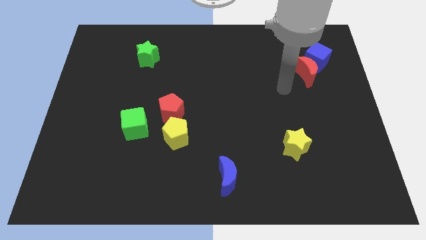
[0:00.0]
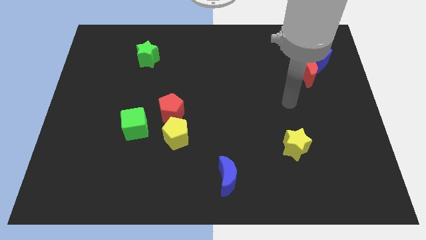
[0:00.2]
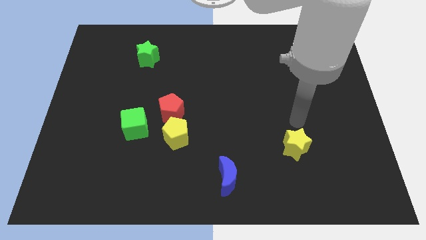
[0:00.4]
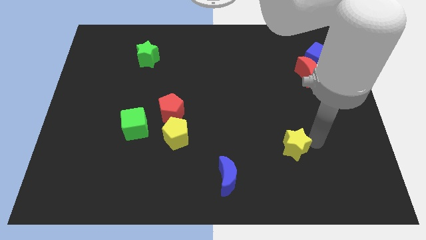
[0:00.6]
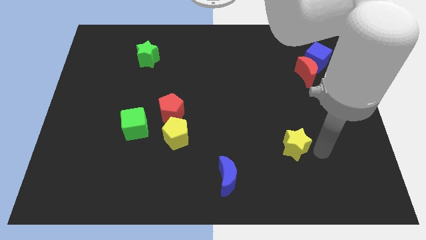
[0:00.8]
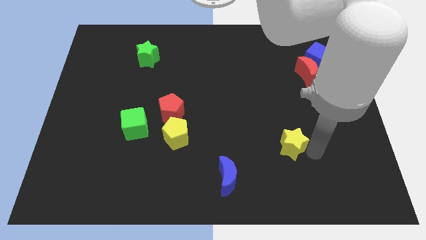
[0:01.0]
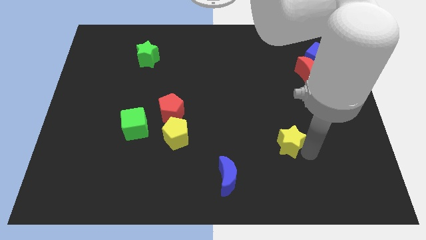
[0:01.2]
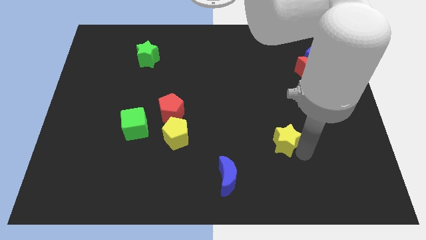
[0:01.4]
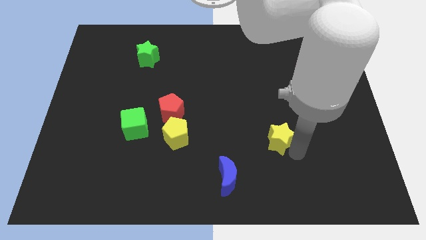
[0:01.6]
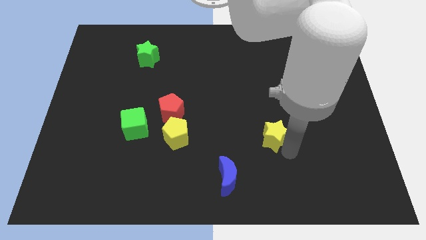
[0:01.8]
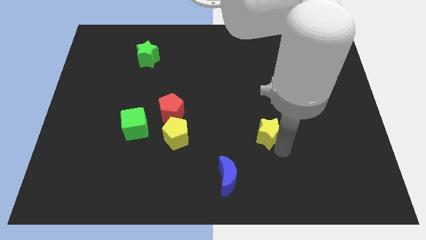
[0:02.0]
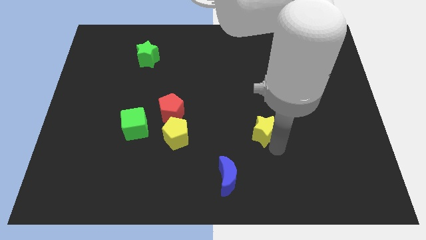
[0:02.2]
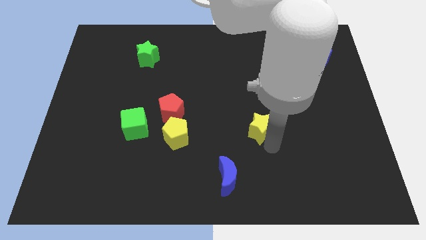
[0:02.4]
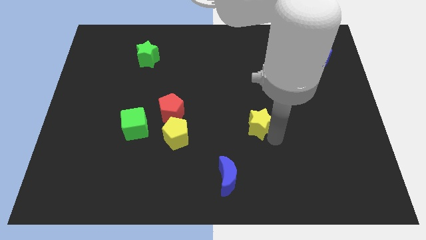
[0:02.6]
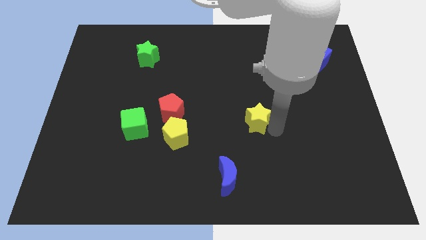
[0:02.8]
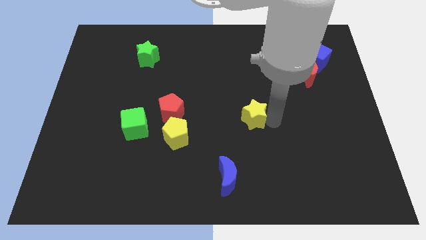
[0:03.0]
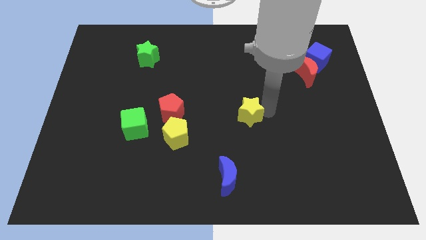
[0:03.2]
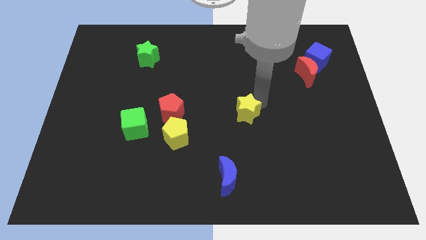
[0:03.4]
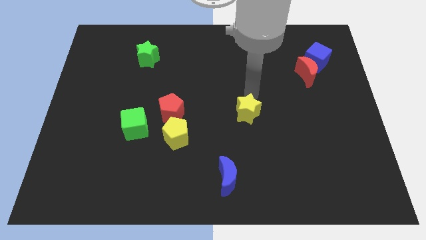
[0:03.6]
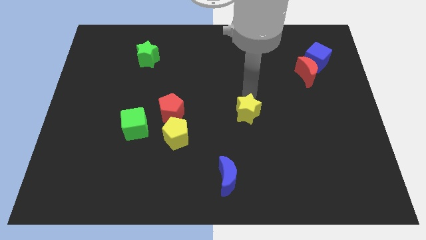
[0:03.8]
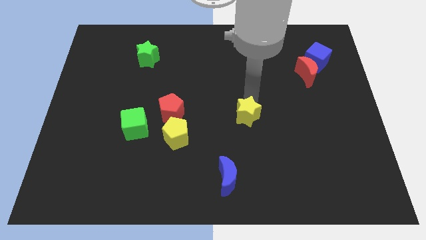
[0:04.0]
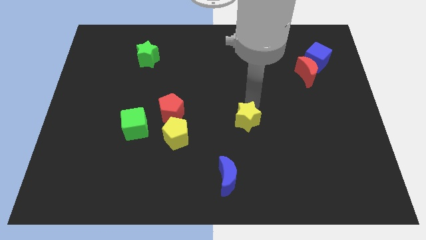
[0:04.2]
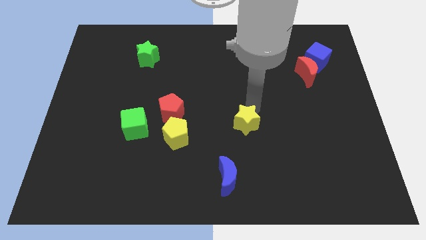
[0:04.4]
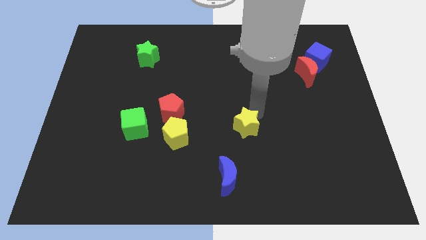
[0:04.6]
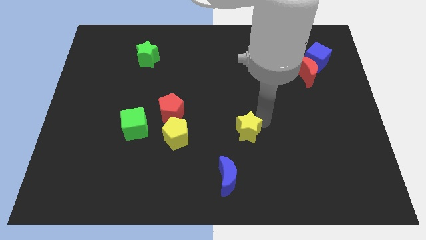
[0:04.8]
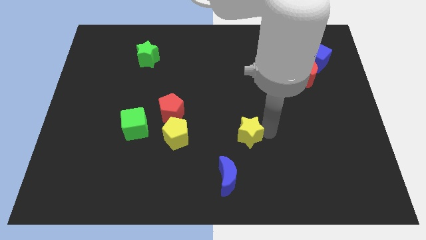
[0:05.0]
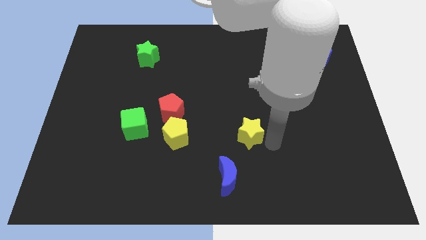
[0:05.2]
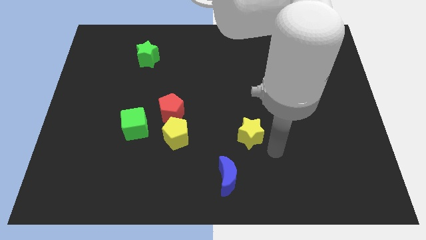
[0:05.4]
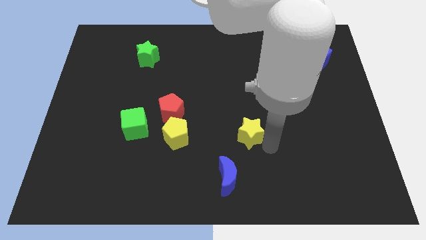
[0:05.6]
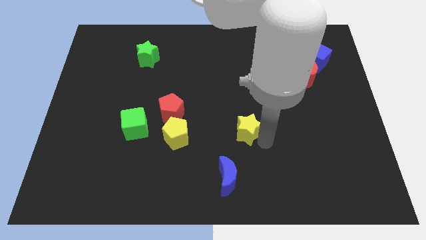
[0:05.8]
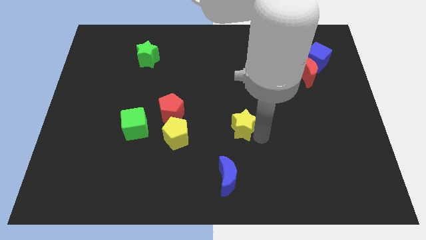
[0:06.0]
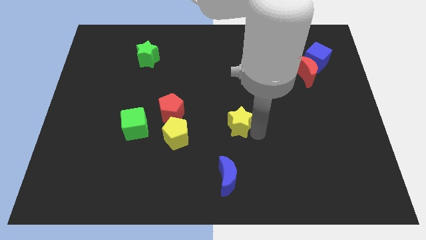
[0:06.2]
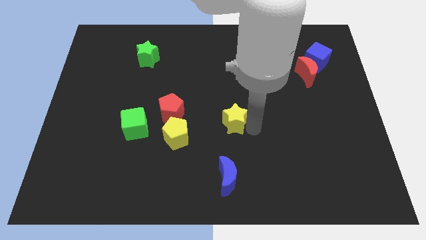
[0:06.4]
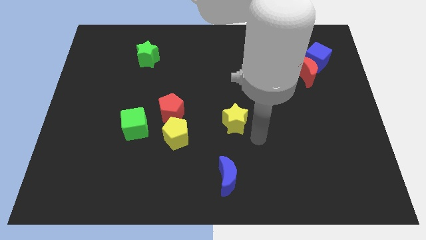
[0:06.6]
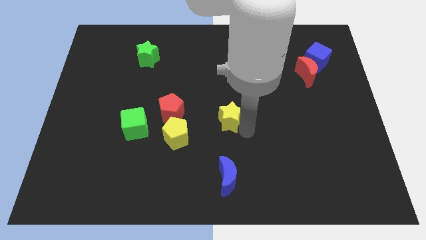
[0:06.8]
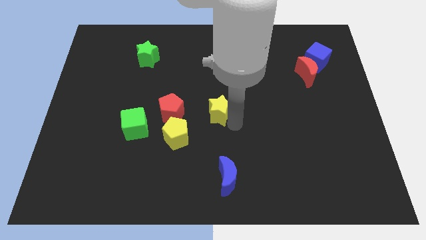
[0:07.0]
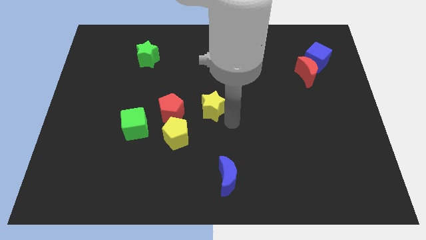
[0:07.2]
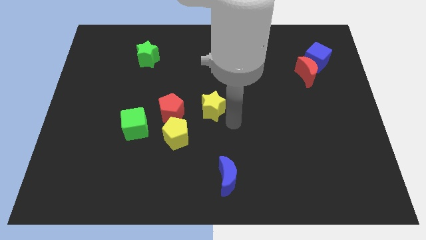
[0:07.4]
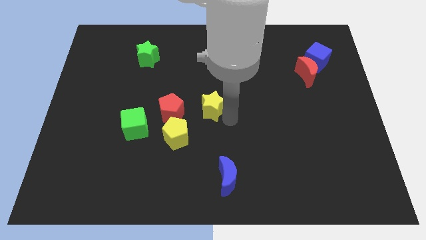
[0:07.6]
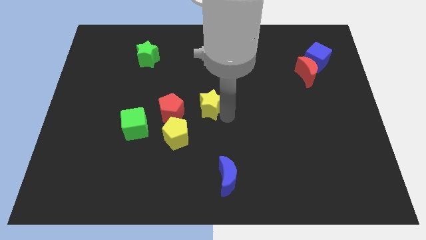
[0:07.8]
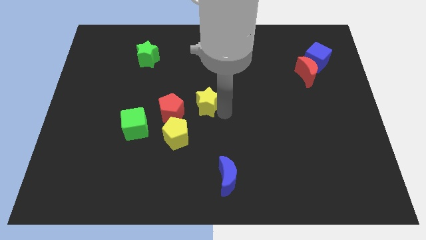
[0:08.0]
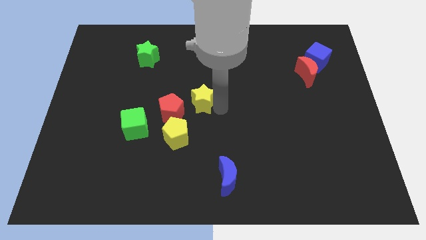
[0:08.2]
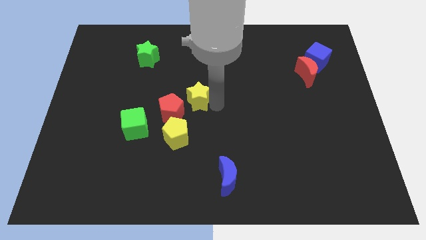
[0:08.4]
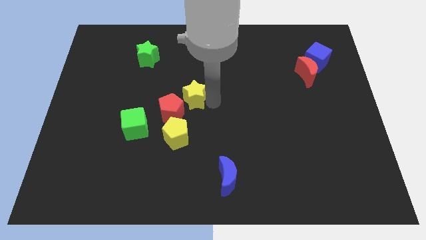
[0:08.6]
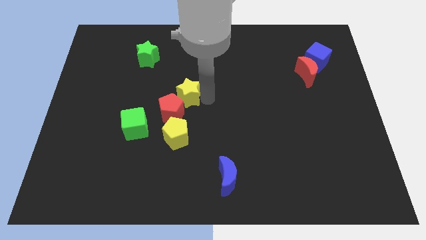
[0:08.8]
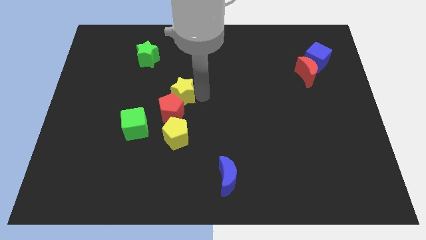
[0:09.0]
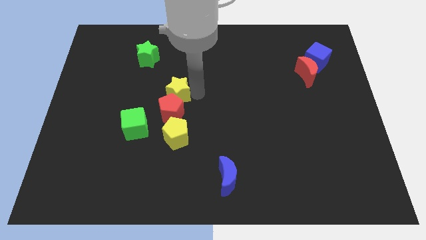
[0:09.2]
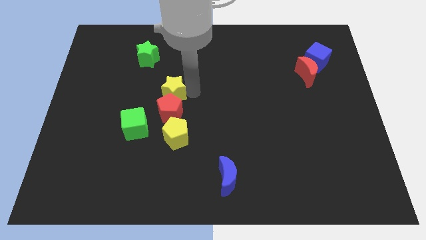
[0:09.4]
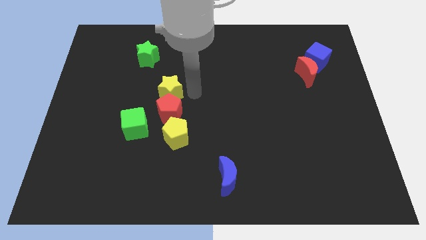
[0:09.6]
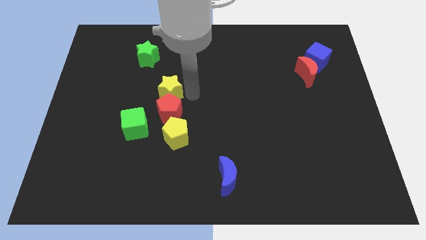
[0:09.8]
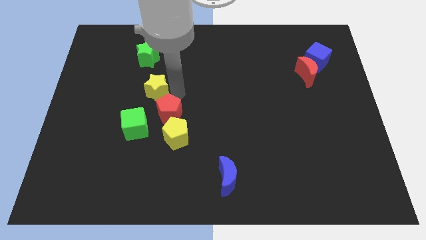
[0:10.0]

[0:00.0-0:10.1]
move the yellow star to the top side of the green cube

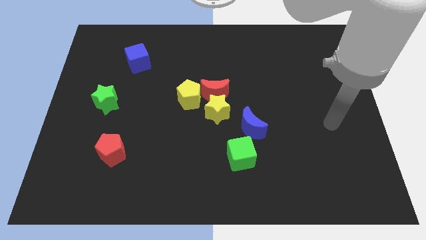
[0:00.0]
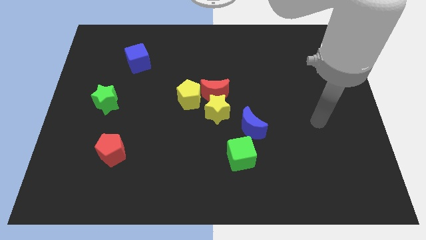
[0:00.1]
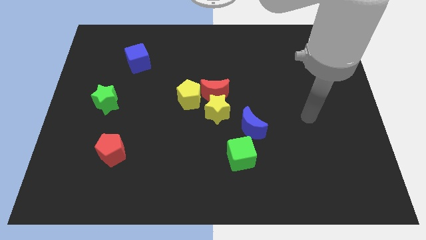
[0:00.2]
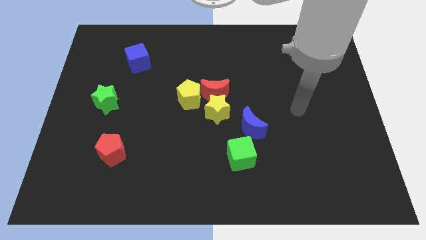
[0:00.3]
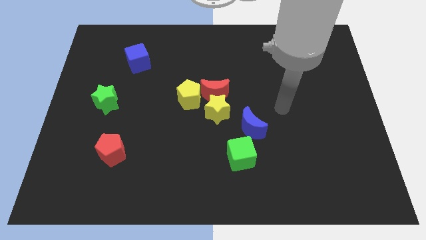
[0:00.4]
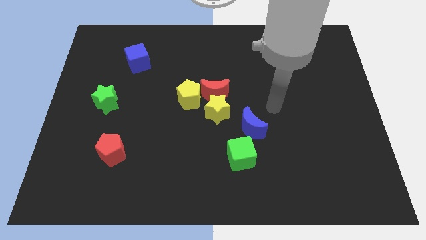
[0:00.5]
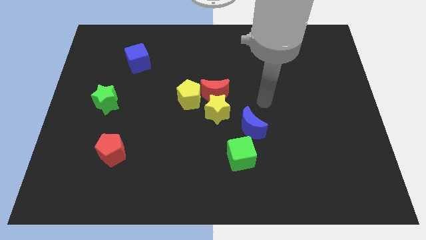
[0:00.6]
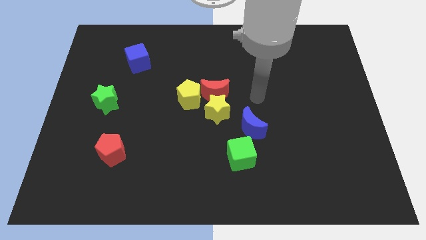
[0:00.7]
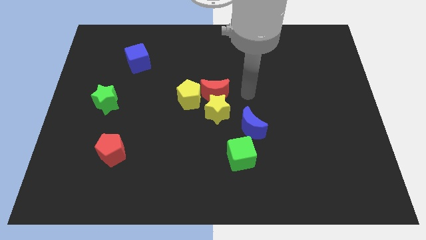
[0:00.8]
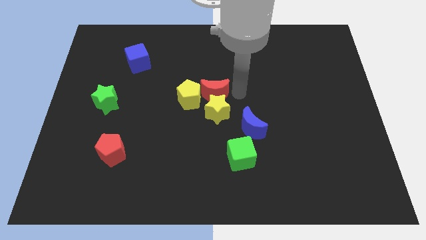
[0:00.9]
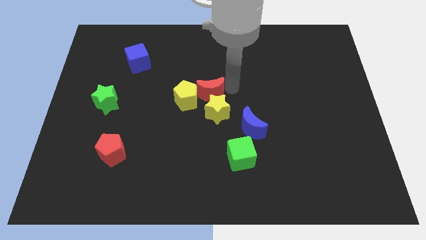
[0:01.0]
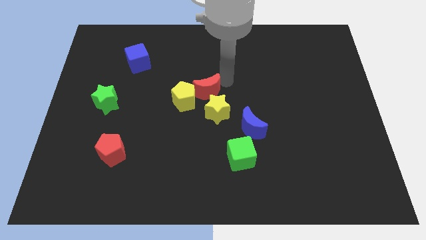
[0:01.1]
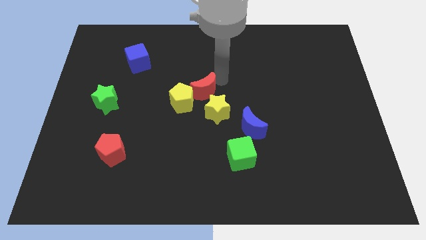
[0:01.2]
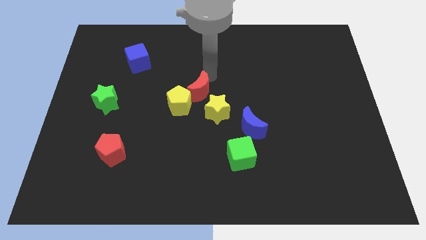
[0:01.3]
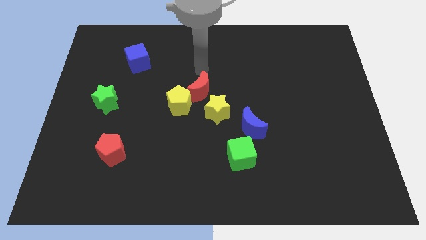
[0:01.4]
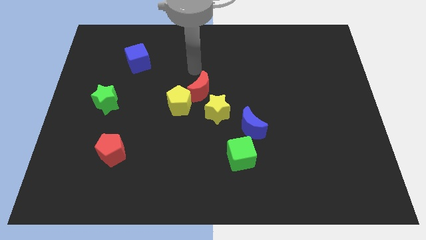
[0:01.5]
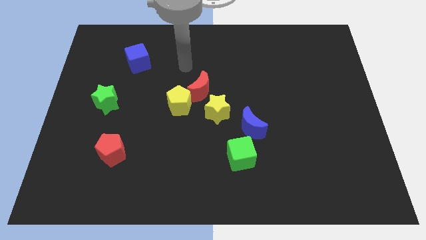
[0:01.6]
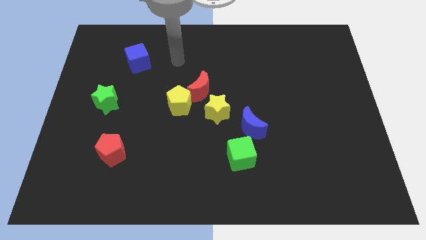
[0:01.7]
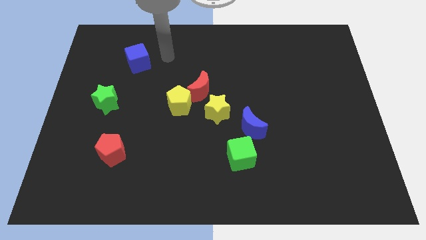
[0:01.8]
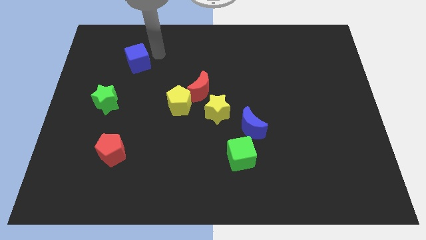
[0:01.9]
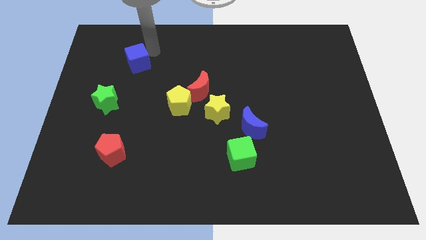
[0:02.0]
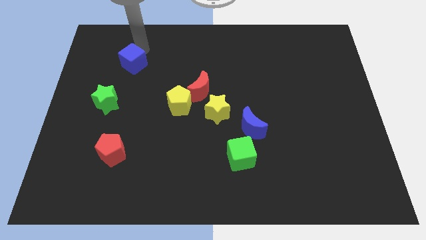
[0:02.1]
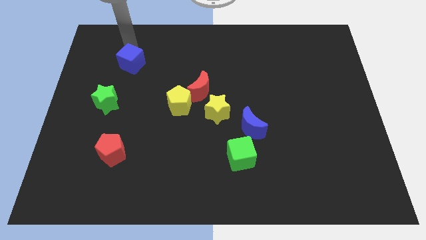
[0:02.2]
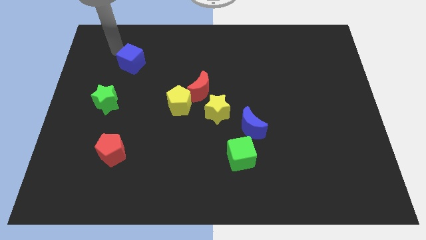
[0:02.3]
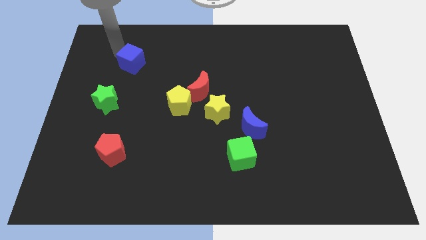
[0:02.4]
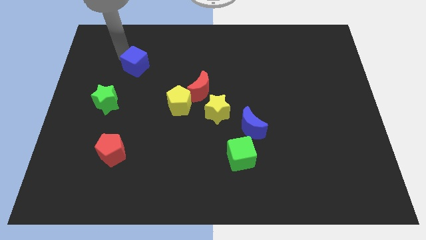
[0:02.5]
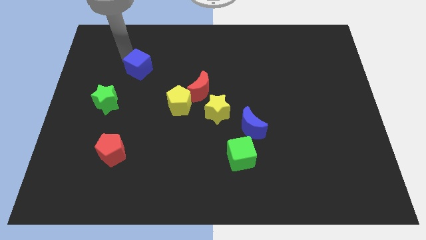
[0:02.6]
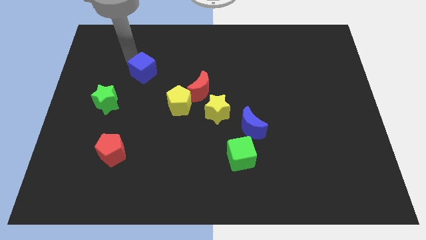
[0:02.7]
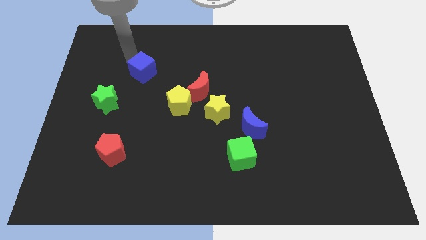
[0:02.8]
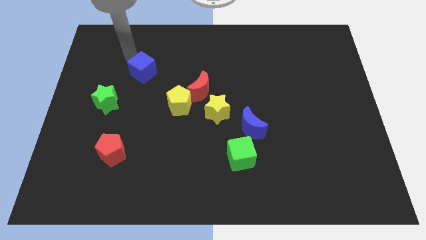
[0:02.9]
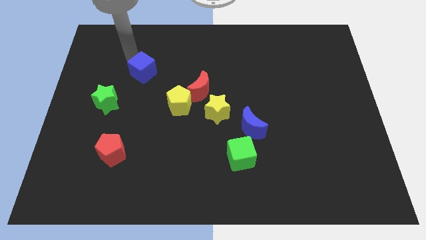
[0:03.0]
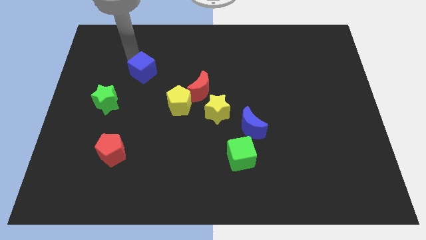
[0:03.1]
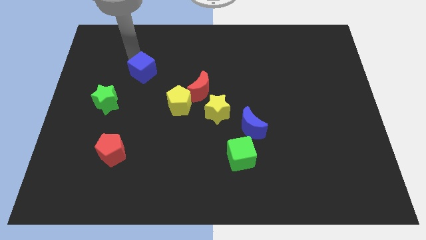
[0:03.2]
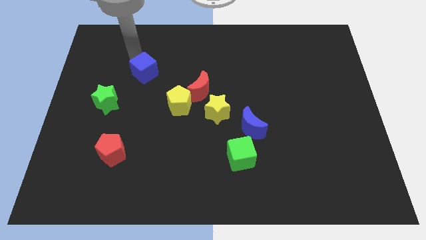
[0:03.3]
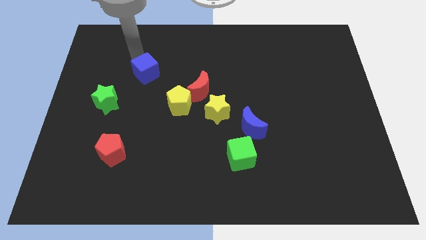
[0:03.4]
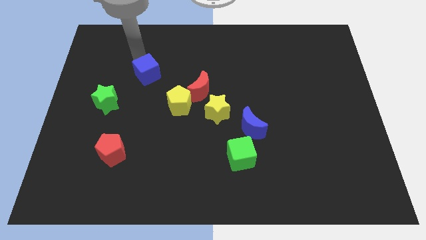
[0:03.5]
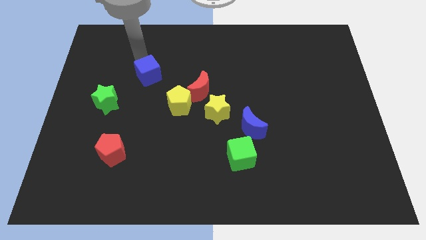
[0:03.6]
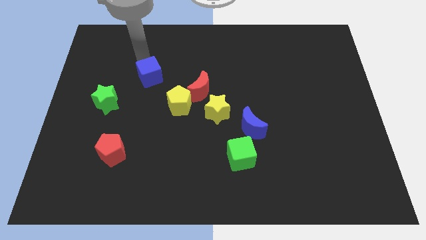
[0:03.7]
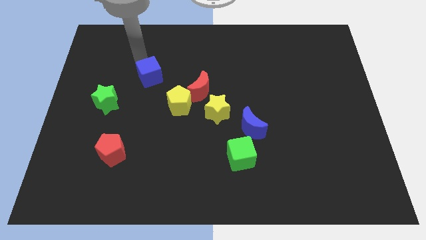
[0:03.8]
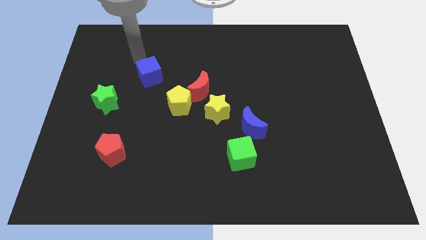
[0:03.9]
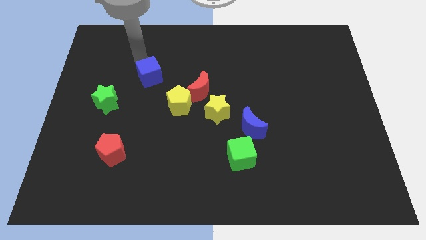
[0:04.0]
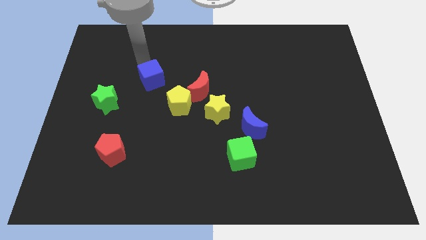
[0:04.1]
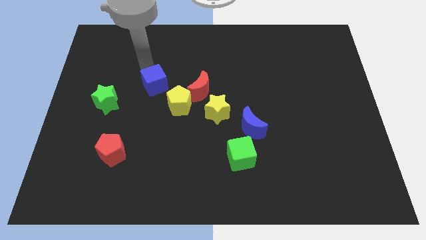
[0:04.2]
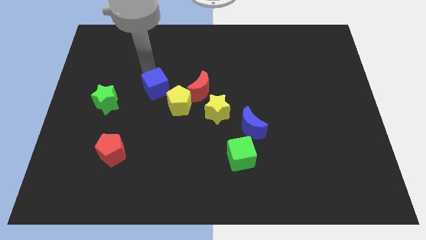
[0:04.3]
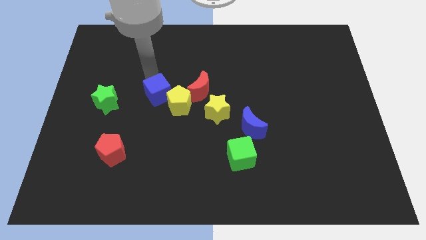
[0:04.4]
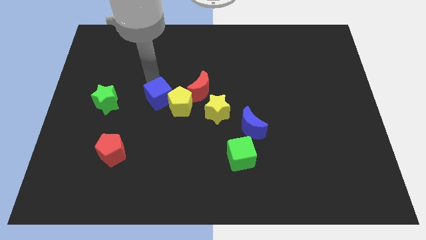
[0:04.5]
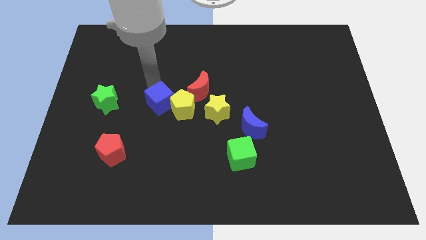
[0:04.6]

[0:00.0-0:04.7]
push the blue cube diagonally down and to the left of the red moon
